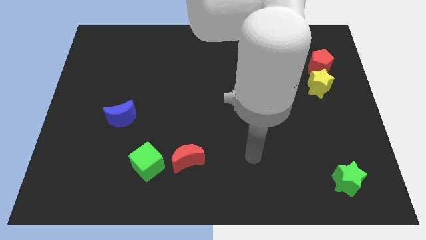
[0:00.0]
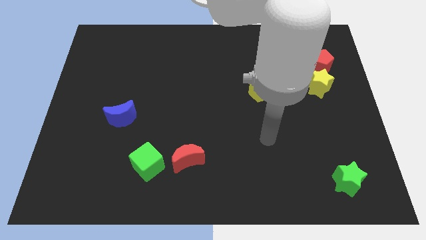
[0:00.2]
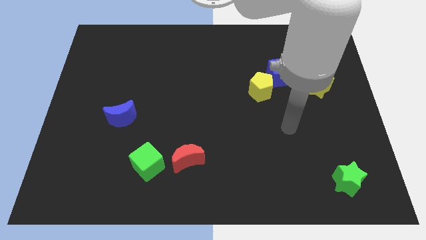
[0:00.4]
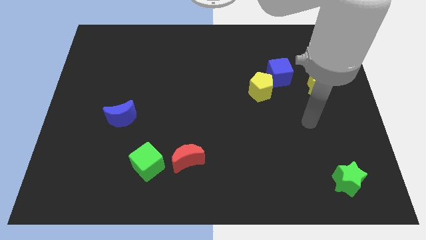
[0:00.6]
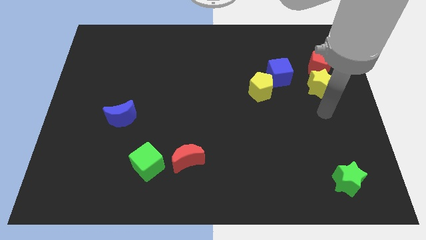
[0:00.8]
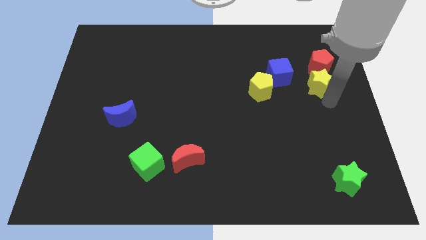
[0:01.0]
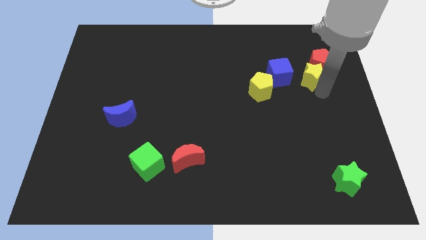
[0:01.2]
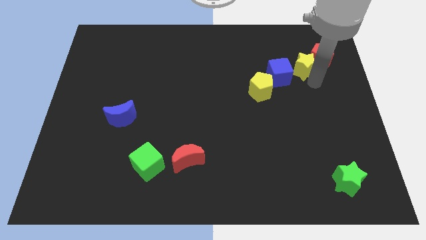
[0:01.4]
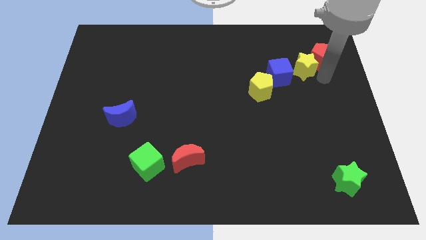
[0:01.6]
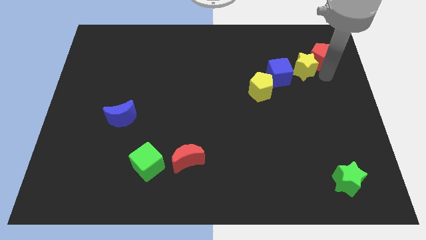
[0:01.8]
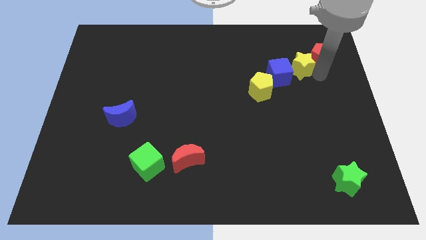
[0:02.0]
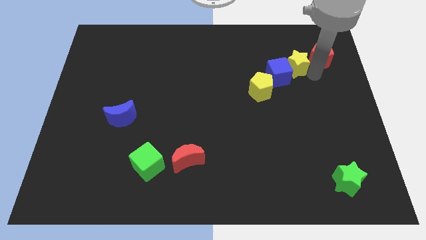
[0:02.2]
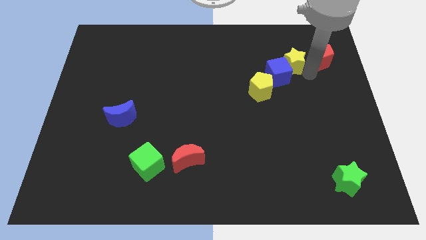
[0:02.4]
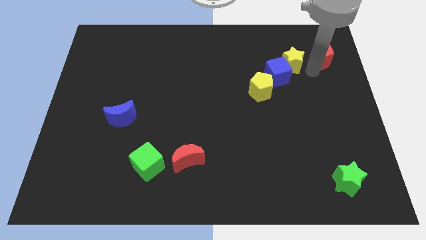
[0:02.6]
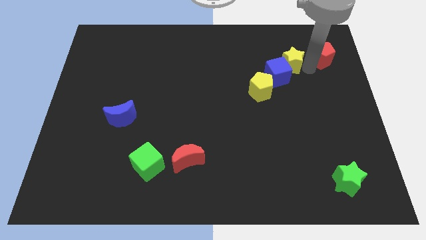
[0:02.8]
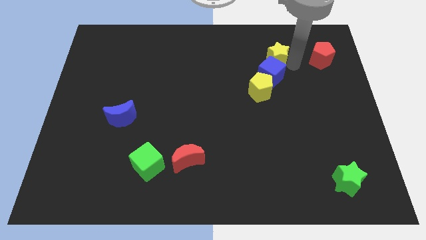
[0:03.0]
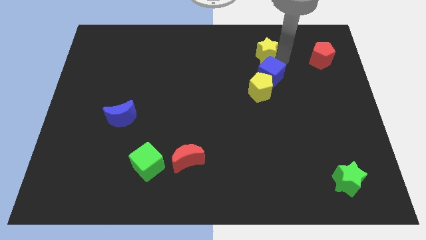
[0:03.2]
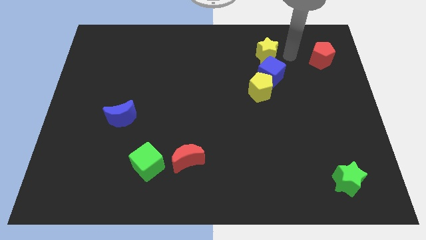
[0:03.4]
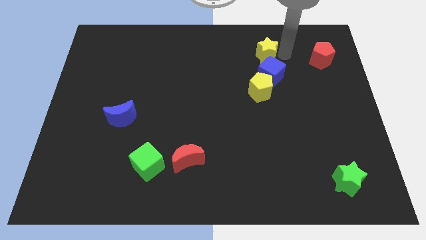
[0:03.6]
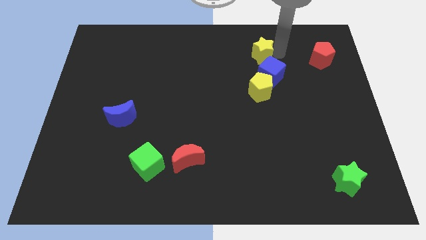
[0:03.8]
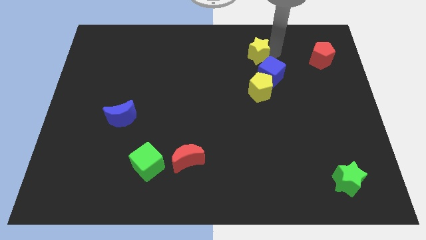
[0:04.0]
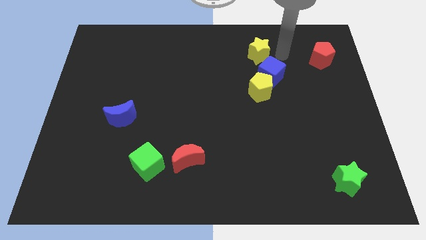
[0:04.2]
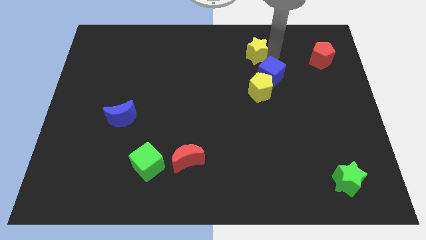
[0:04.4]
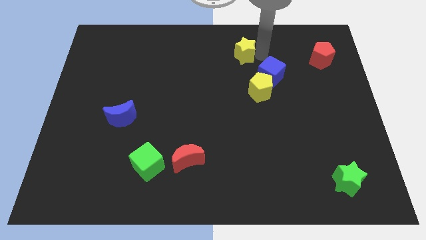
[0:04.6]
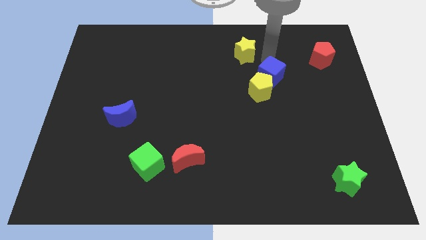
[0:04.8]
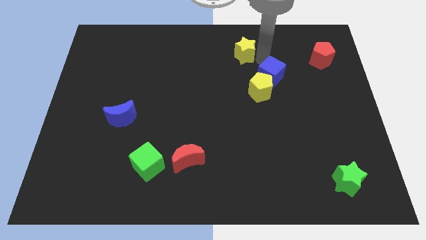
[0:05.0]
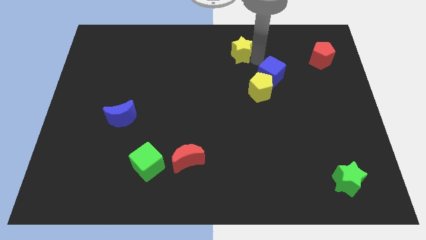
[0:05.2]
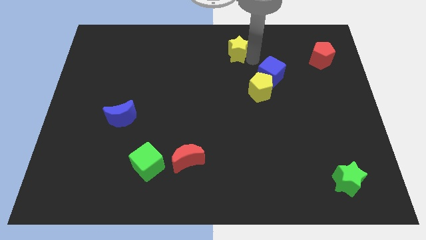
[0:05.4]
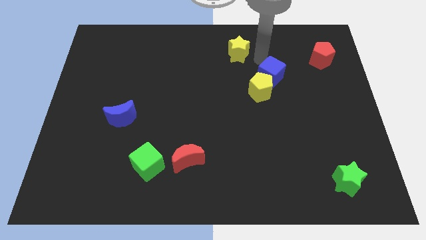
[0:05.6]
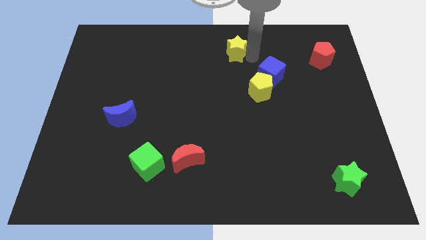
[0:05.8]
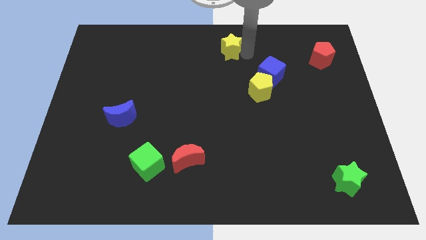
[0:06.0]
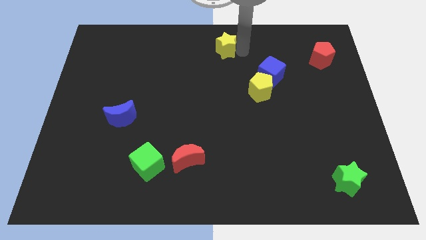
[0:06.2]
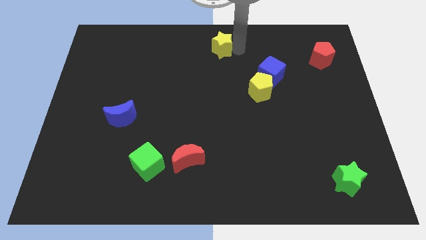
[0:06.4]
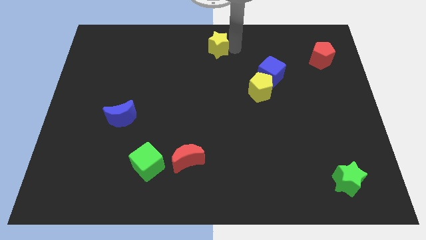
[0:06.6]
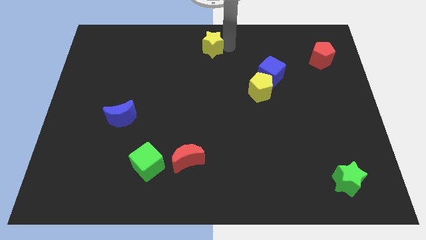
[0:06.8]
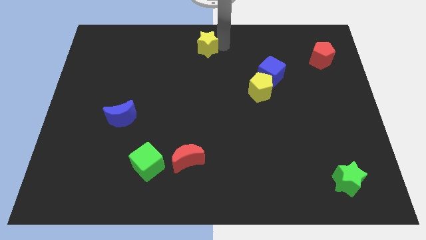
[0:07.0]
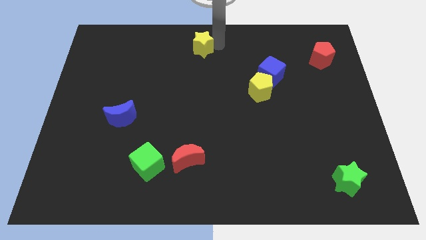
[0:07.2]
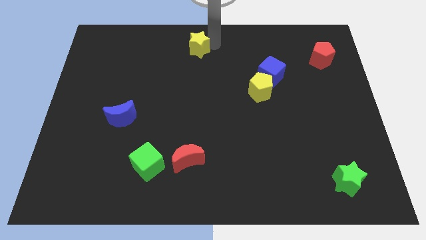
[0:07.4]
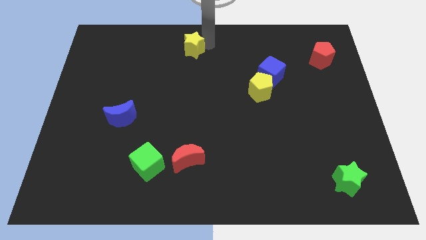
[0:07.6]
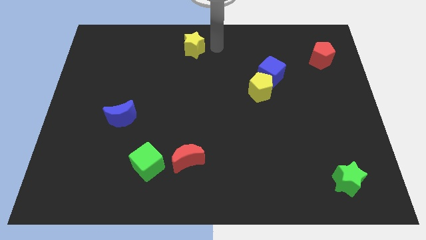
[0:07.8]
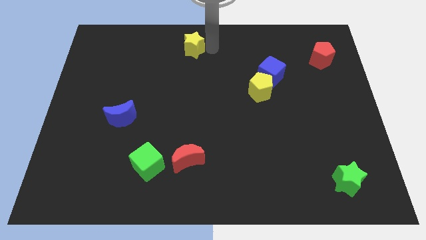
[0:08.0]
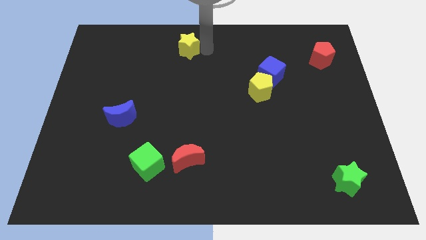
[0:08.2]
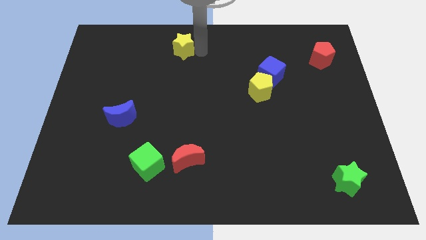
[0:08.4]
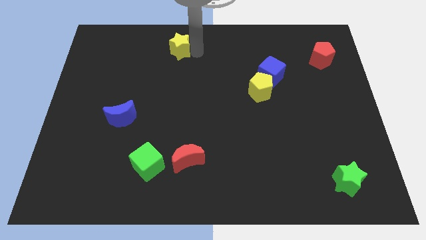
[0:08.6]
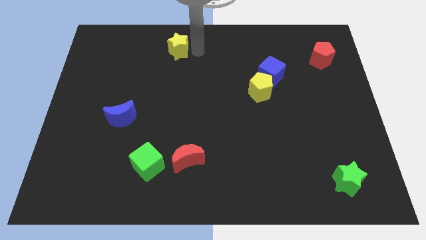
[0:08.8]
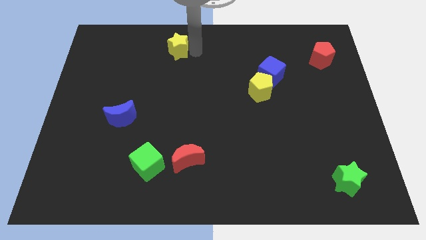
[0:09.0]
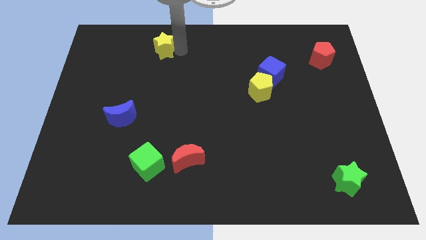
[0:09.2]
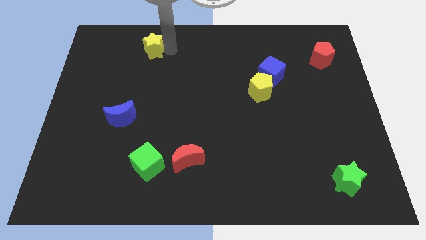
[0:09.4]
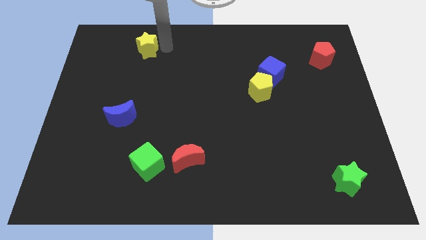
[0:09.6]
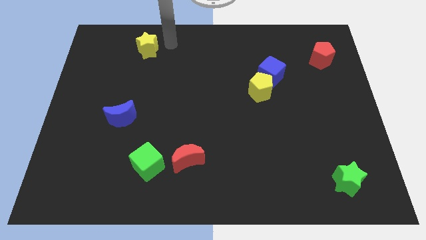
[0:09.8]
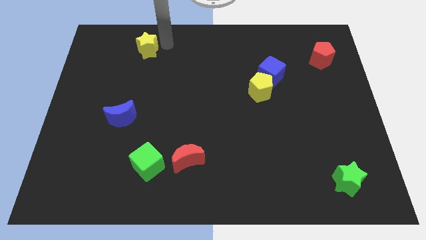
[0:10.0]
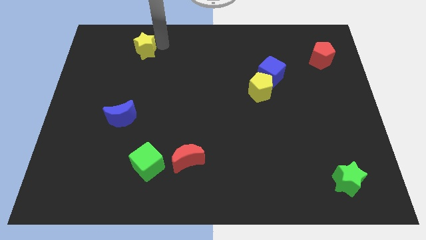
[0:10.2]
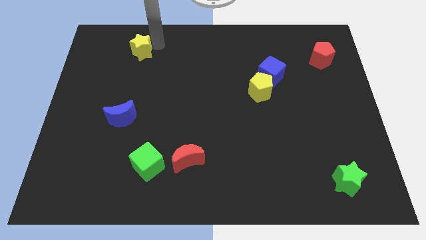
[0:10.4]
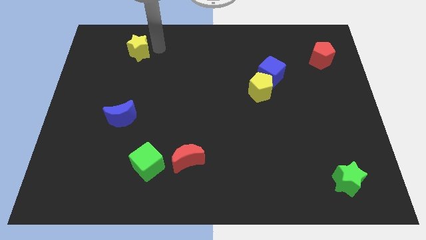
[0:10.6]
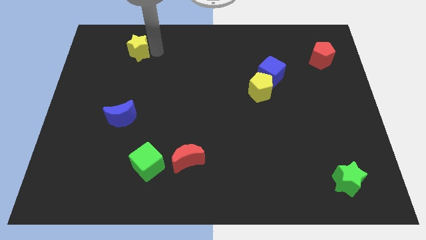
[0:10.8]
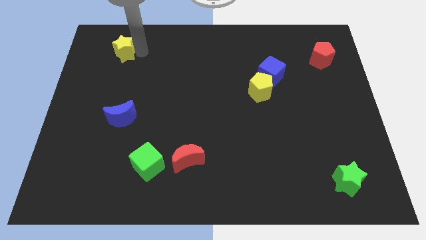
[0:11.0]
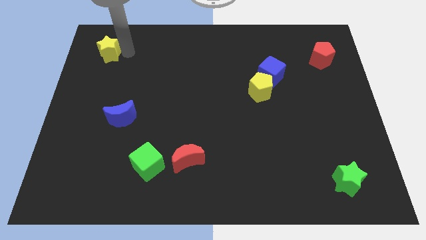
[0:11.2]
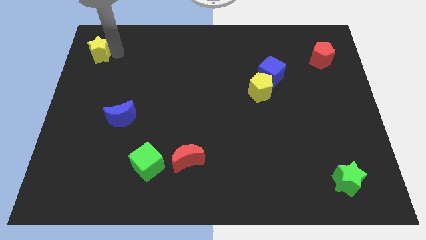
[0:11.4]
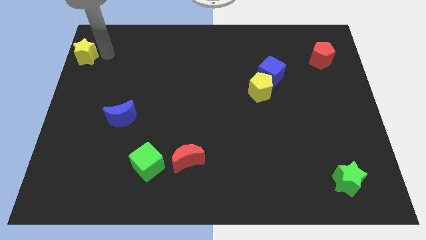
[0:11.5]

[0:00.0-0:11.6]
push the yellow star to the top left of the board
